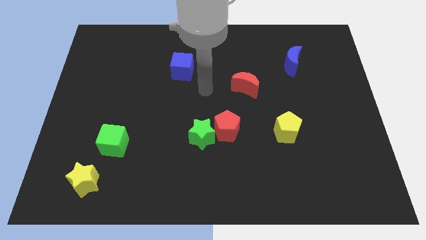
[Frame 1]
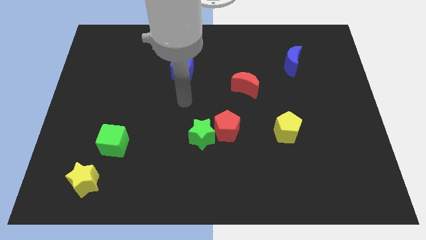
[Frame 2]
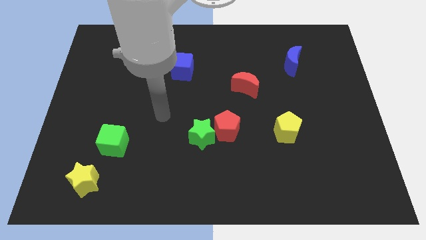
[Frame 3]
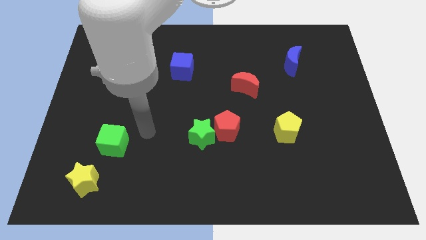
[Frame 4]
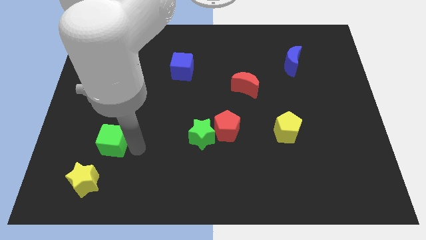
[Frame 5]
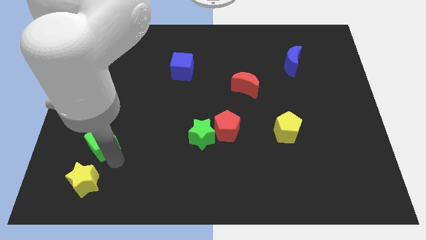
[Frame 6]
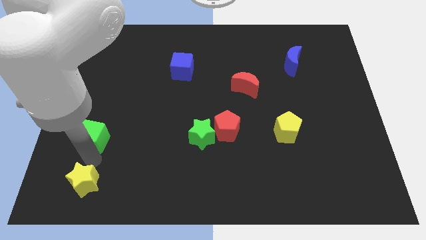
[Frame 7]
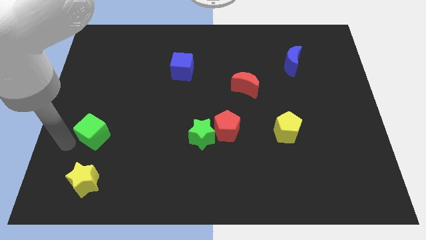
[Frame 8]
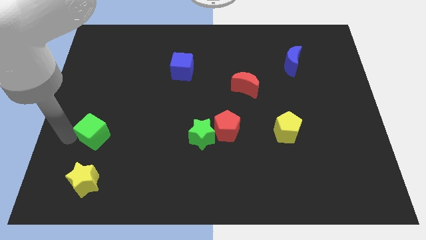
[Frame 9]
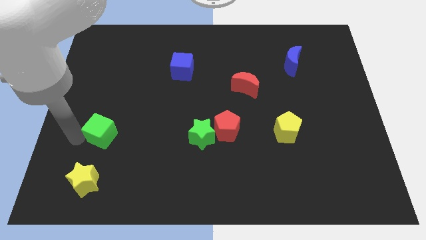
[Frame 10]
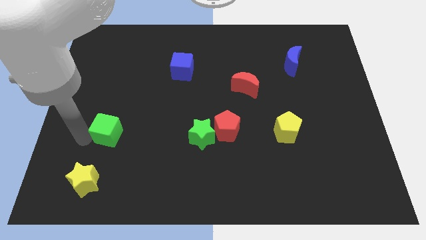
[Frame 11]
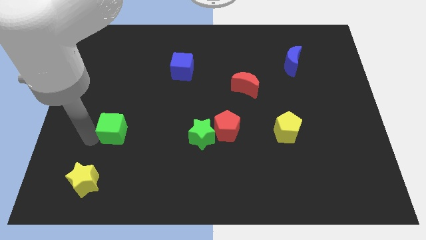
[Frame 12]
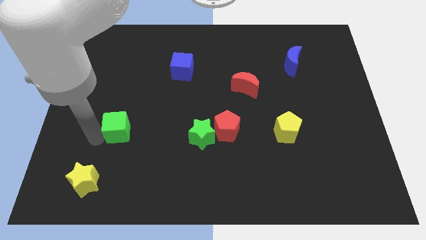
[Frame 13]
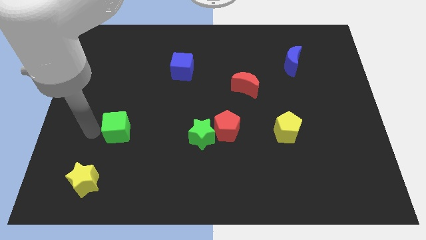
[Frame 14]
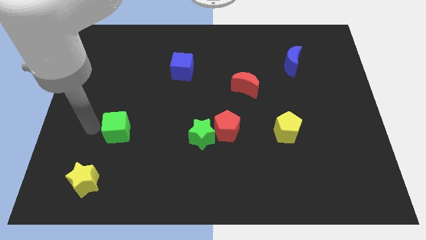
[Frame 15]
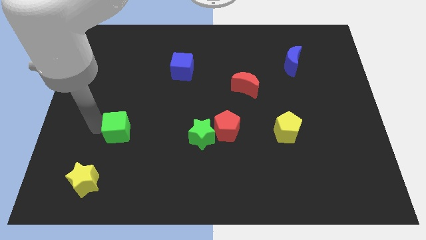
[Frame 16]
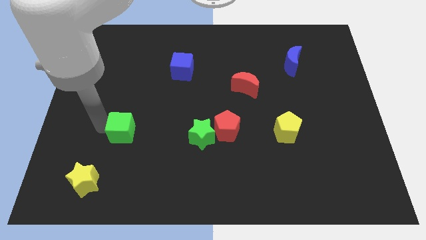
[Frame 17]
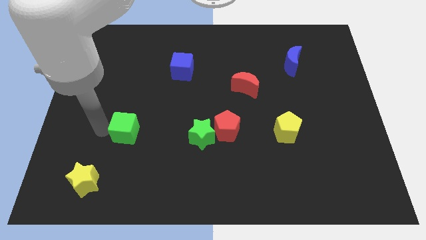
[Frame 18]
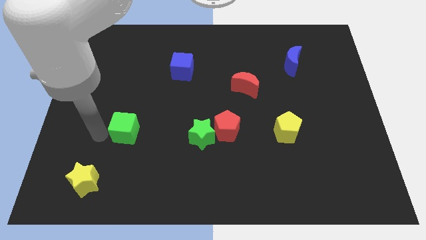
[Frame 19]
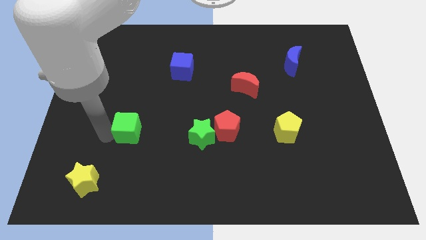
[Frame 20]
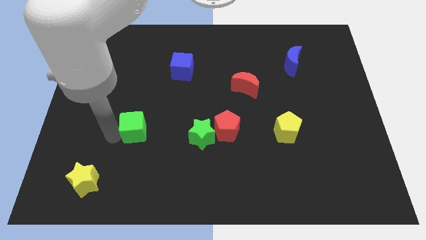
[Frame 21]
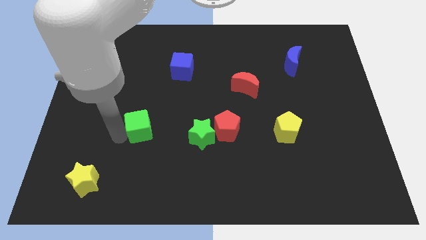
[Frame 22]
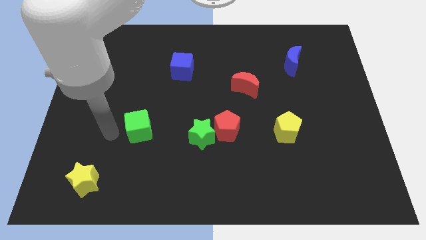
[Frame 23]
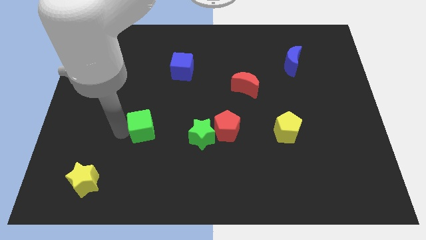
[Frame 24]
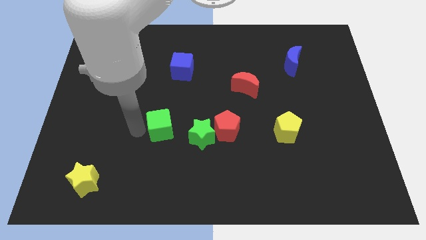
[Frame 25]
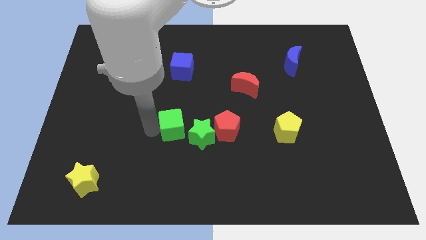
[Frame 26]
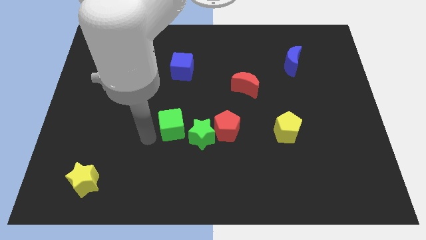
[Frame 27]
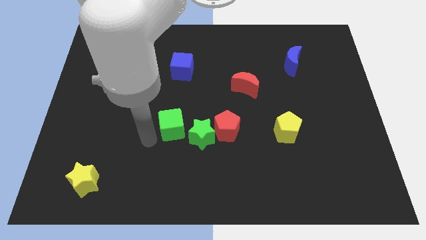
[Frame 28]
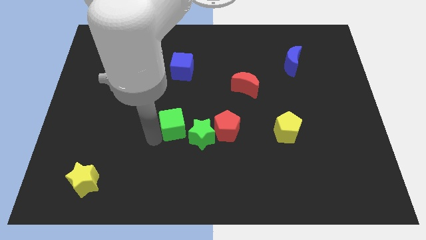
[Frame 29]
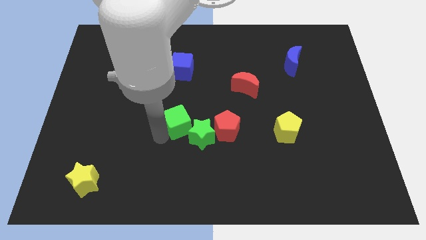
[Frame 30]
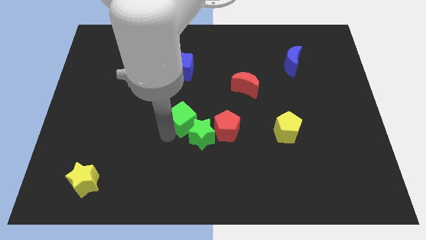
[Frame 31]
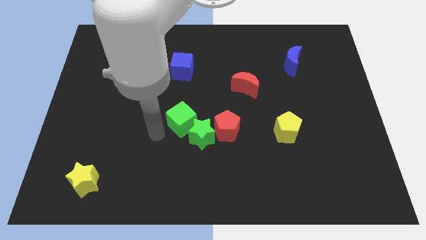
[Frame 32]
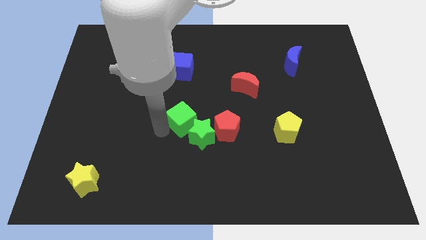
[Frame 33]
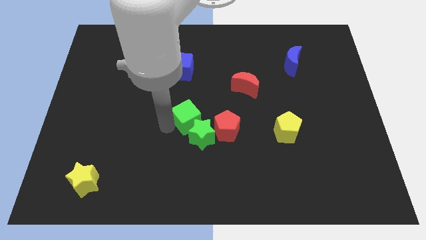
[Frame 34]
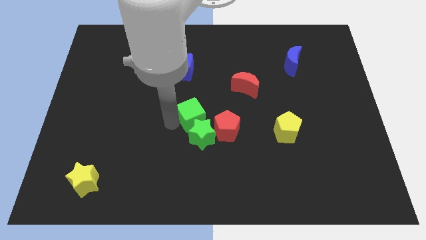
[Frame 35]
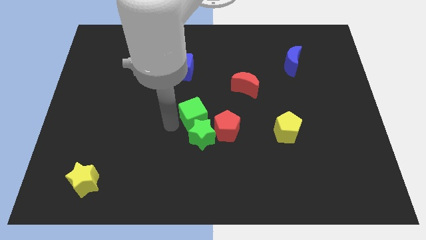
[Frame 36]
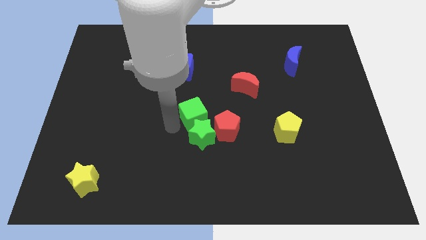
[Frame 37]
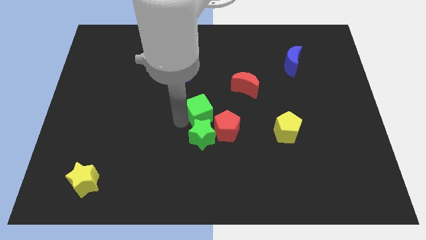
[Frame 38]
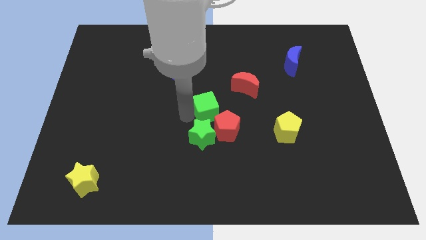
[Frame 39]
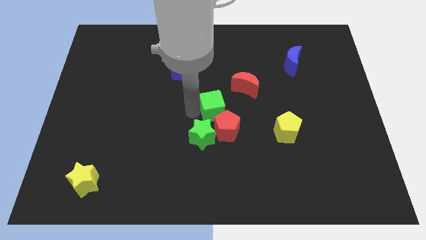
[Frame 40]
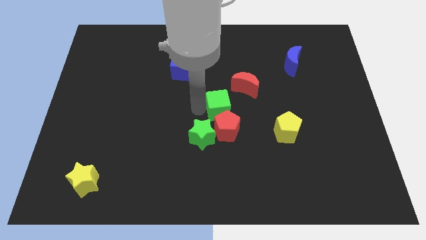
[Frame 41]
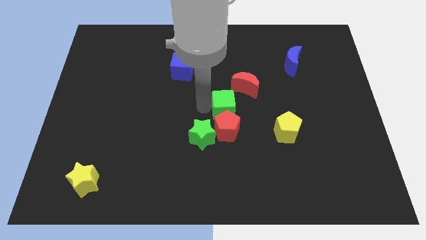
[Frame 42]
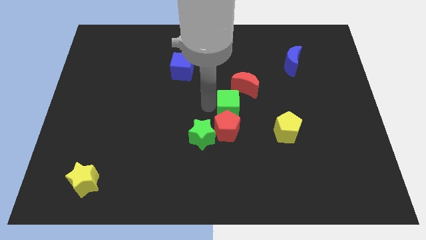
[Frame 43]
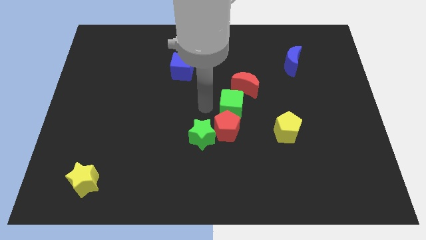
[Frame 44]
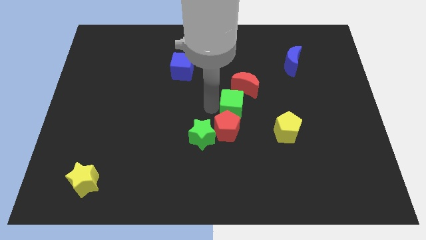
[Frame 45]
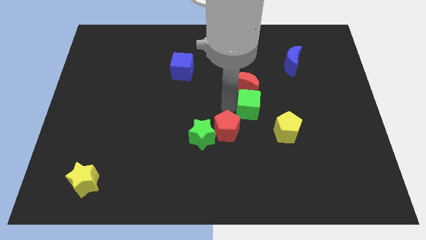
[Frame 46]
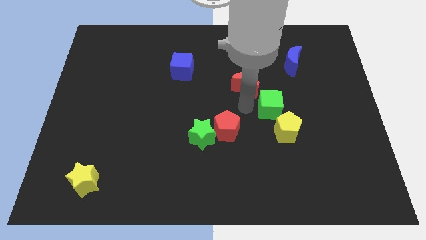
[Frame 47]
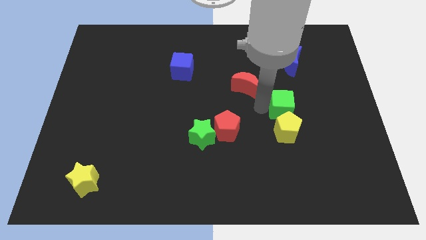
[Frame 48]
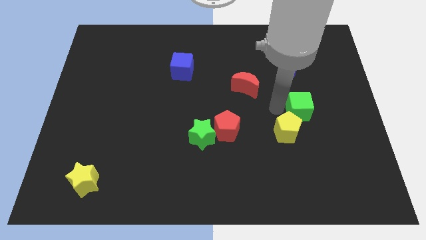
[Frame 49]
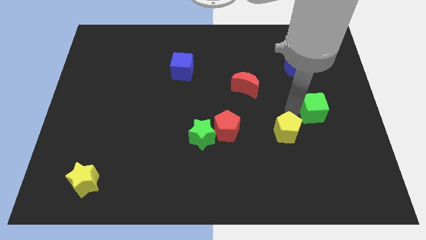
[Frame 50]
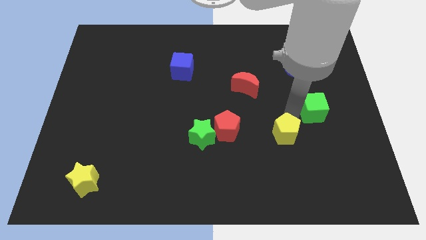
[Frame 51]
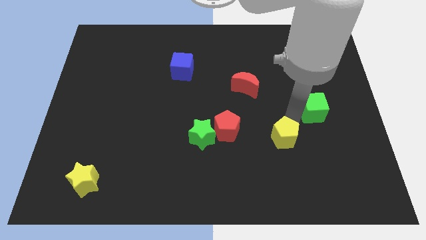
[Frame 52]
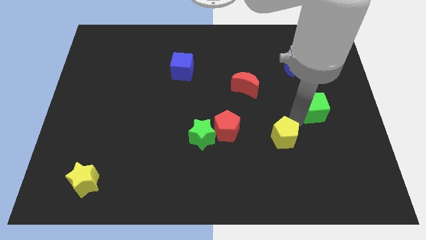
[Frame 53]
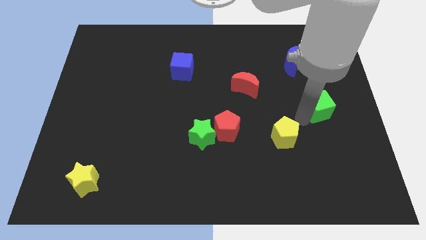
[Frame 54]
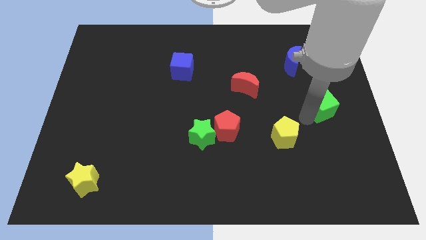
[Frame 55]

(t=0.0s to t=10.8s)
slide the green cube to the right side of the board

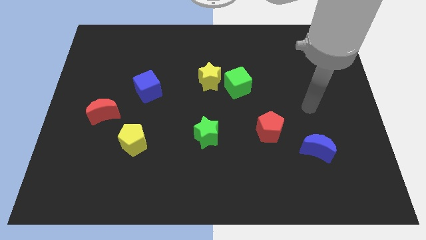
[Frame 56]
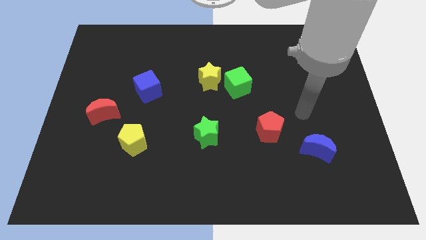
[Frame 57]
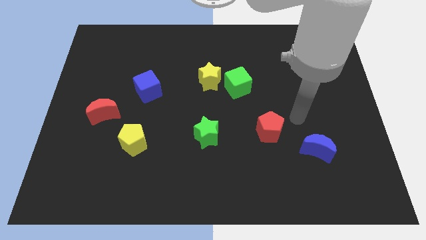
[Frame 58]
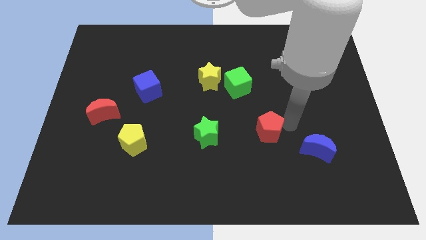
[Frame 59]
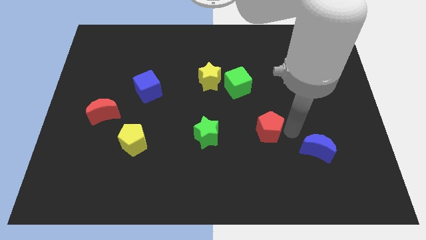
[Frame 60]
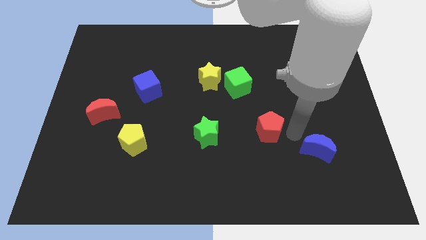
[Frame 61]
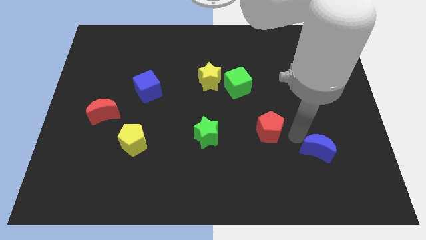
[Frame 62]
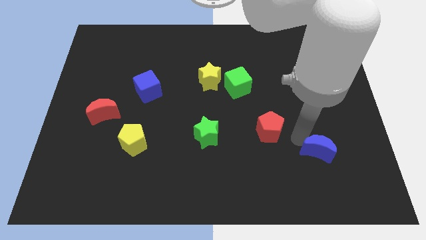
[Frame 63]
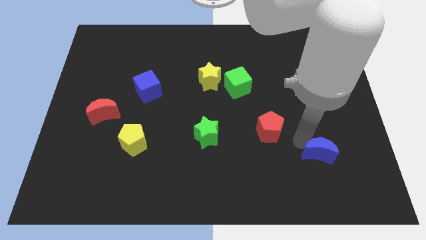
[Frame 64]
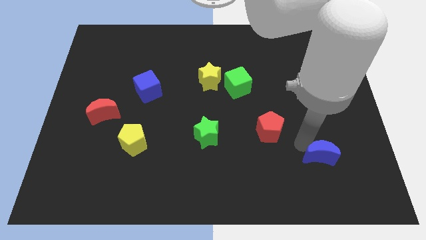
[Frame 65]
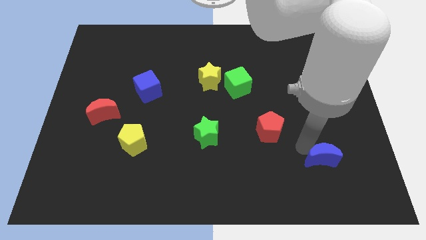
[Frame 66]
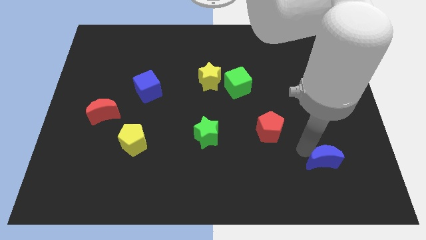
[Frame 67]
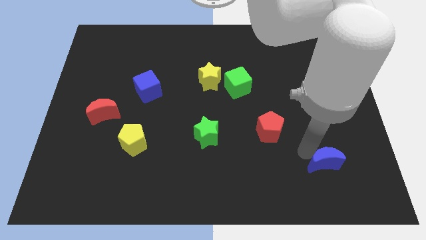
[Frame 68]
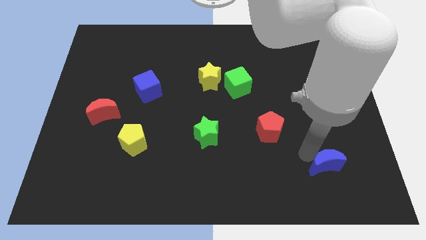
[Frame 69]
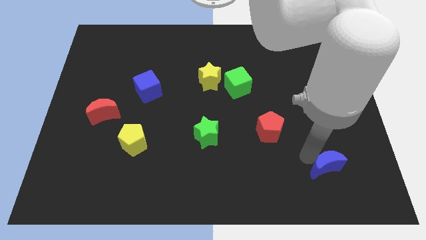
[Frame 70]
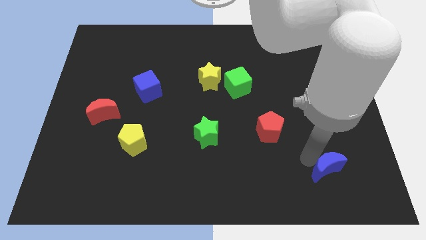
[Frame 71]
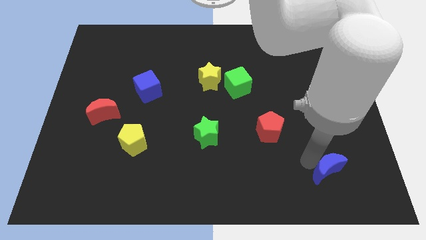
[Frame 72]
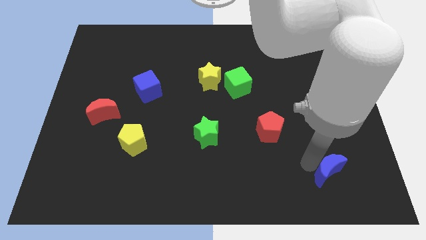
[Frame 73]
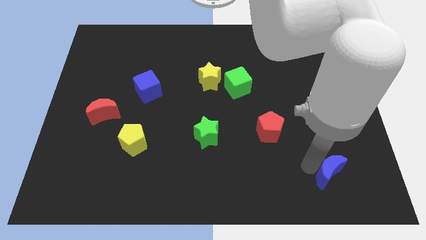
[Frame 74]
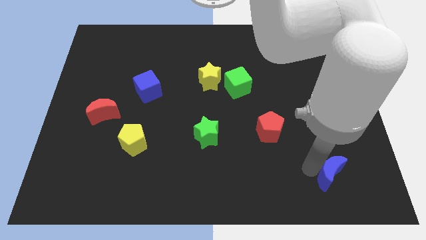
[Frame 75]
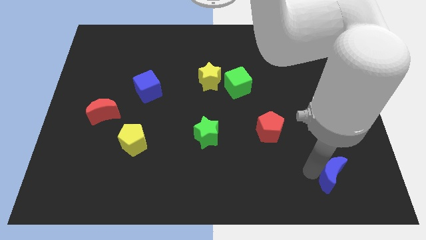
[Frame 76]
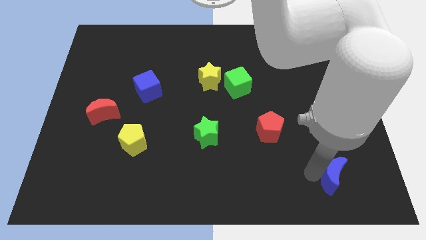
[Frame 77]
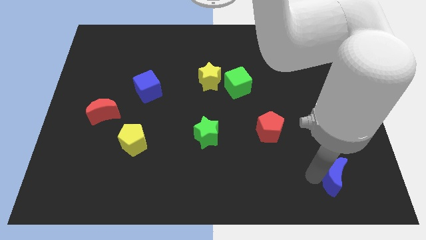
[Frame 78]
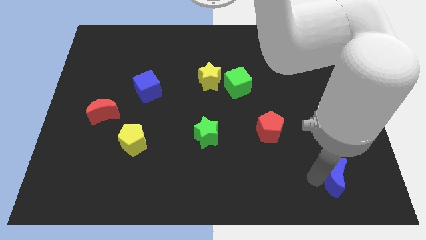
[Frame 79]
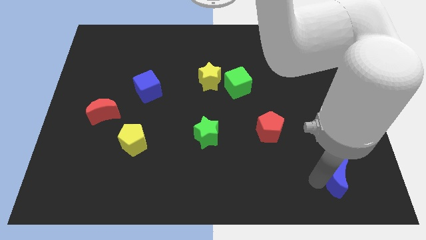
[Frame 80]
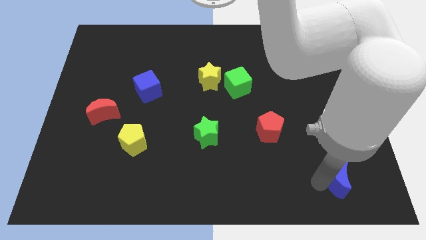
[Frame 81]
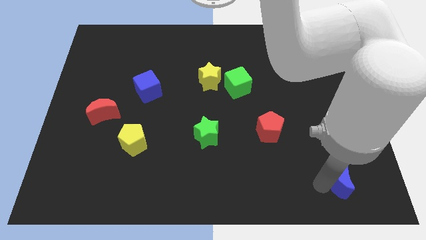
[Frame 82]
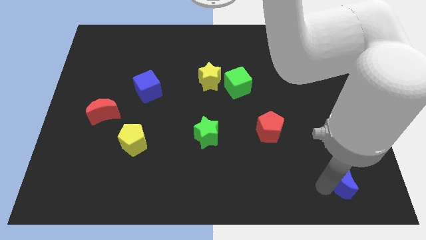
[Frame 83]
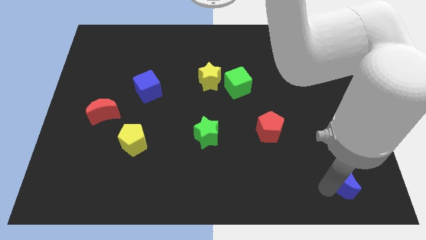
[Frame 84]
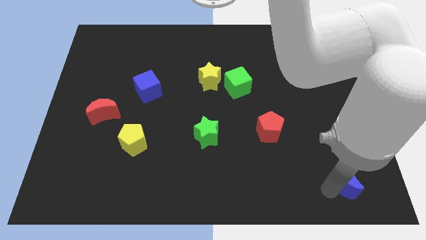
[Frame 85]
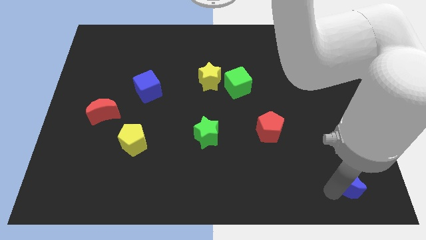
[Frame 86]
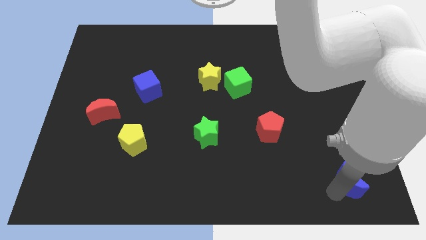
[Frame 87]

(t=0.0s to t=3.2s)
push the blue moon to the bottom right
